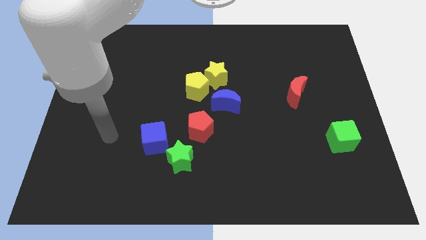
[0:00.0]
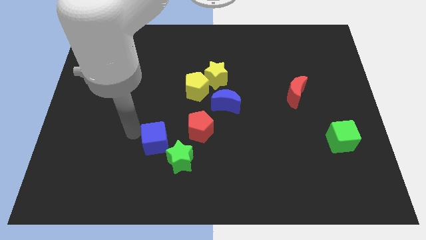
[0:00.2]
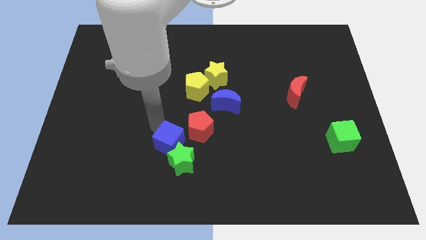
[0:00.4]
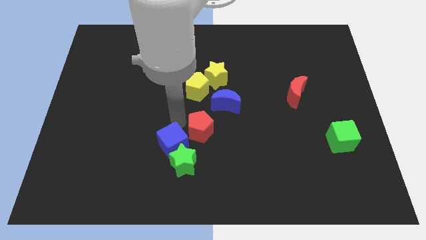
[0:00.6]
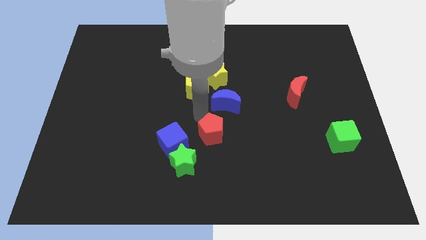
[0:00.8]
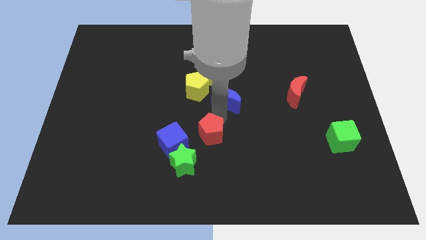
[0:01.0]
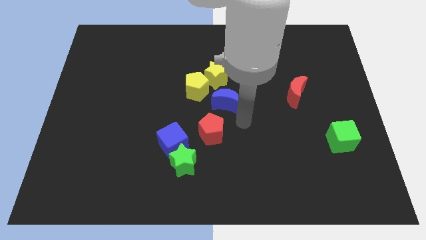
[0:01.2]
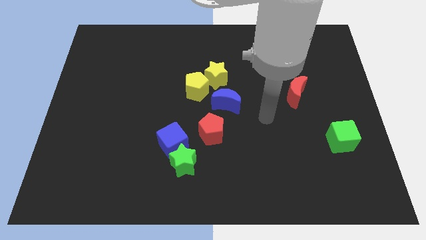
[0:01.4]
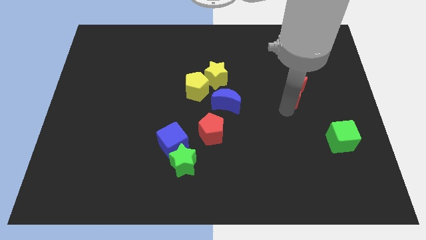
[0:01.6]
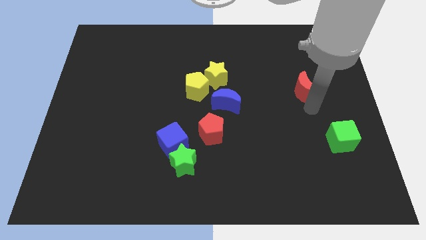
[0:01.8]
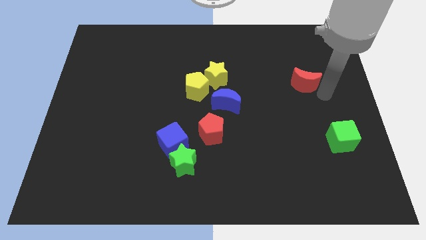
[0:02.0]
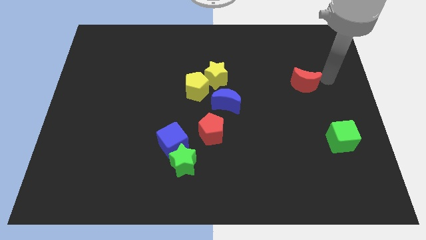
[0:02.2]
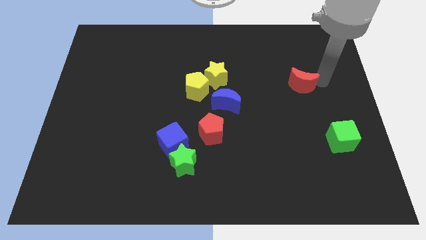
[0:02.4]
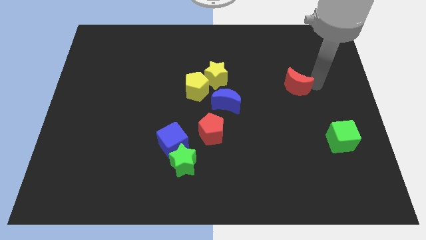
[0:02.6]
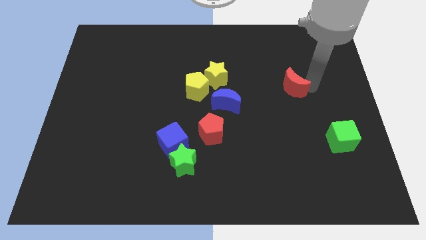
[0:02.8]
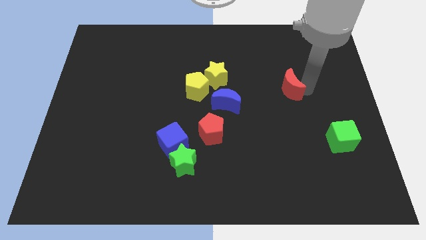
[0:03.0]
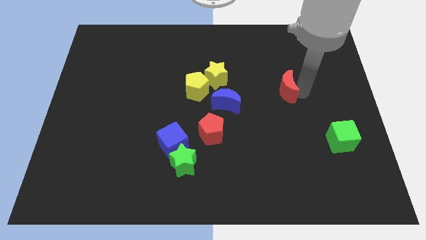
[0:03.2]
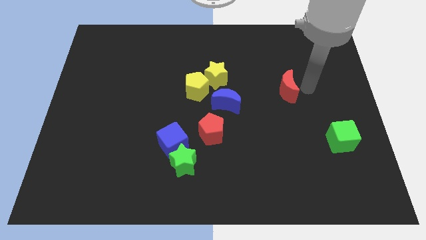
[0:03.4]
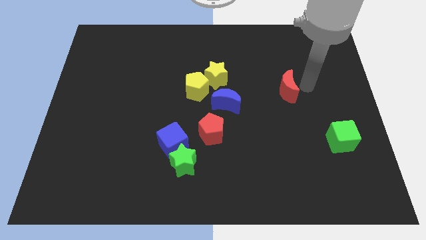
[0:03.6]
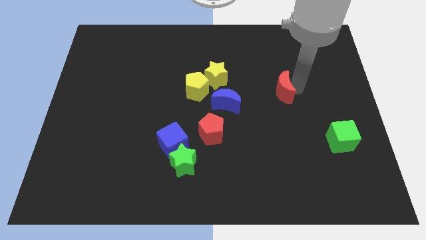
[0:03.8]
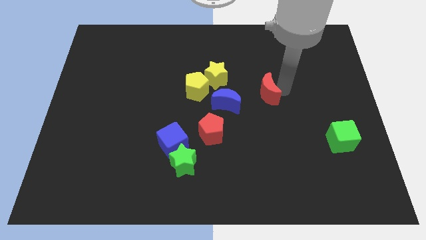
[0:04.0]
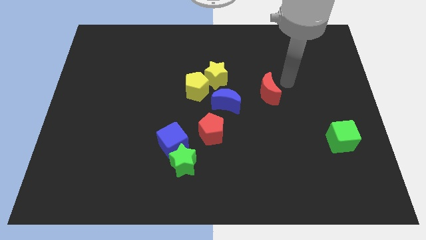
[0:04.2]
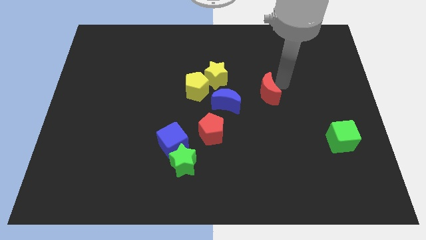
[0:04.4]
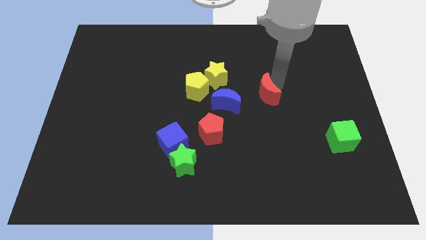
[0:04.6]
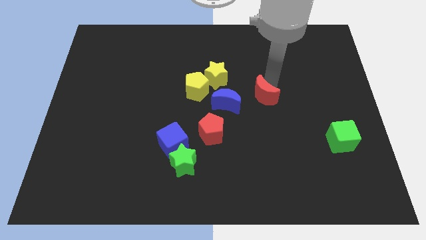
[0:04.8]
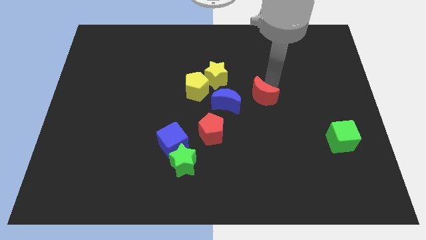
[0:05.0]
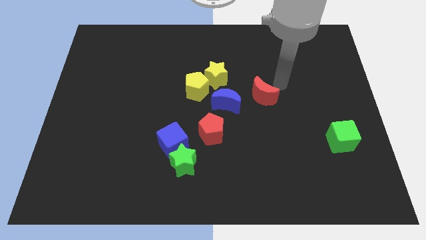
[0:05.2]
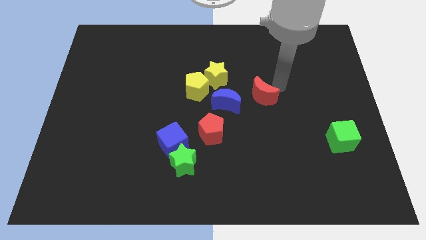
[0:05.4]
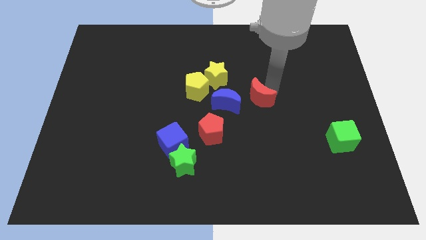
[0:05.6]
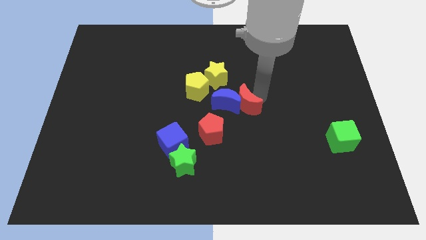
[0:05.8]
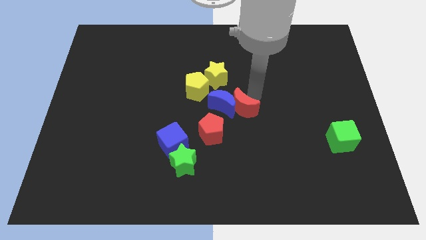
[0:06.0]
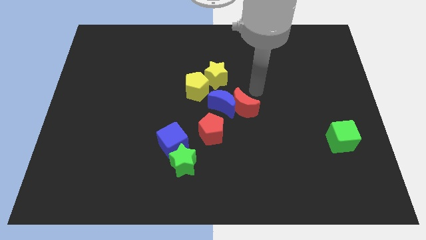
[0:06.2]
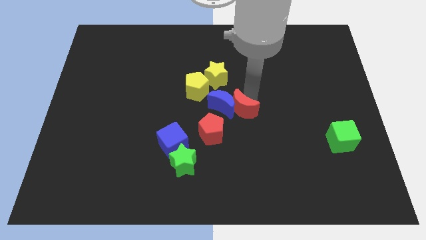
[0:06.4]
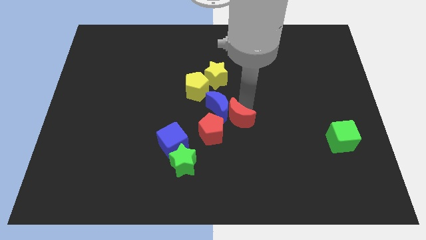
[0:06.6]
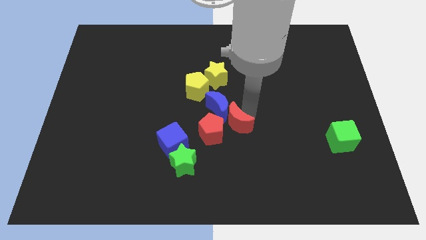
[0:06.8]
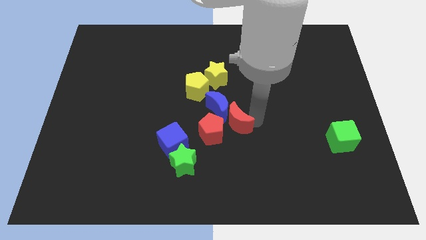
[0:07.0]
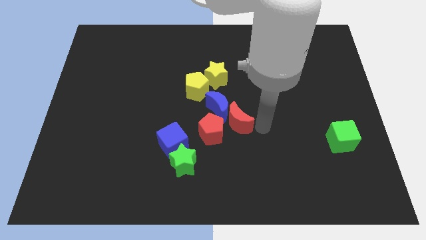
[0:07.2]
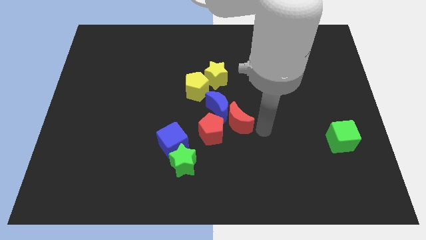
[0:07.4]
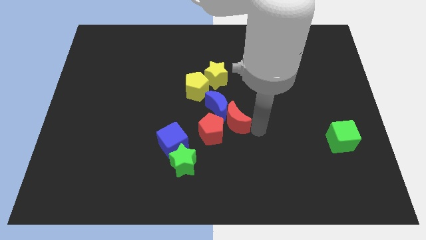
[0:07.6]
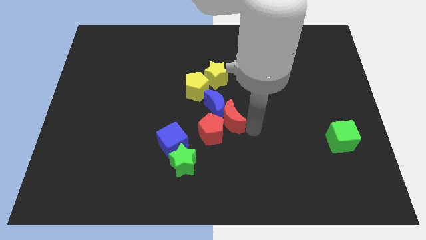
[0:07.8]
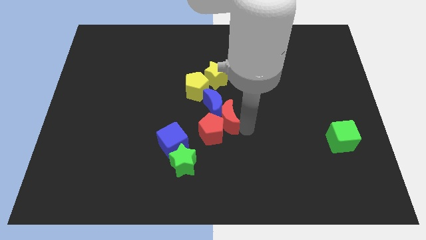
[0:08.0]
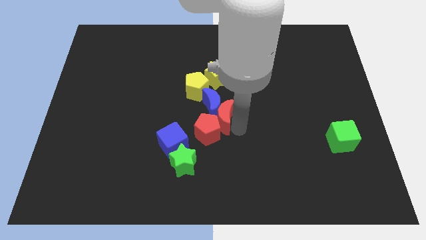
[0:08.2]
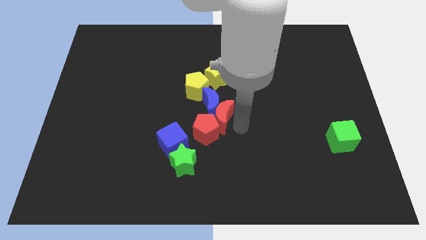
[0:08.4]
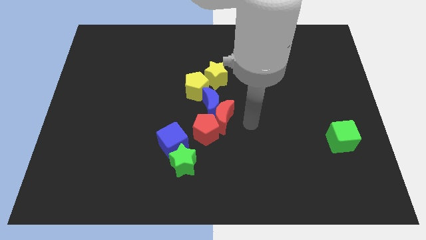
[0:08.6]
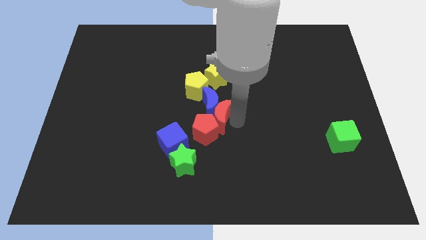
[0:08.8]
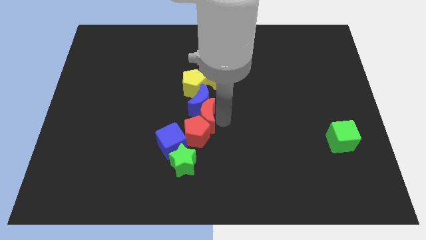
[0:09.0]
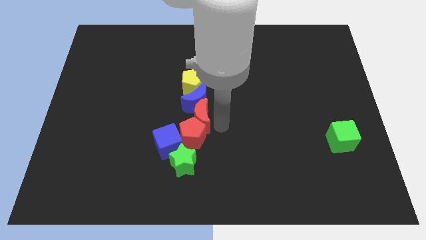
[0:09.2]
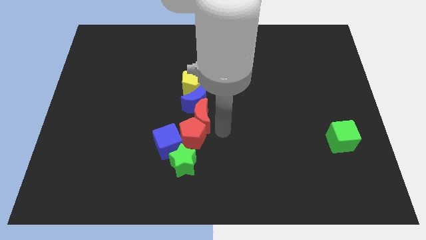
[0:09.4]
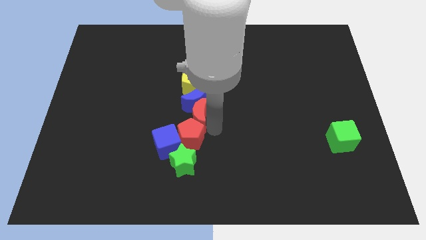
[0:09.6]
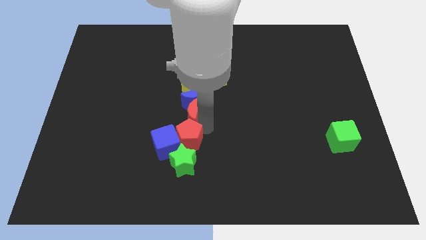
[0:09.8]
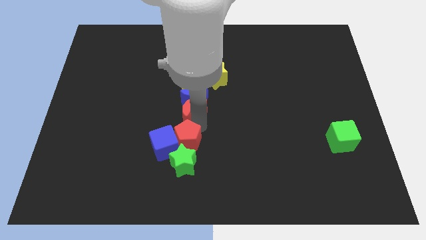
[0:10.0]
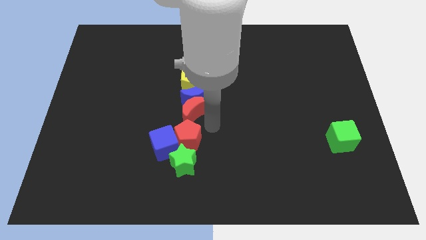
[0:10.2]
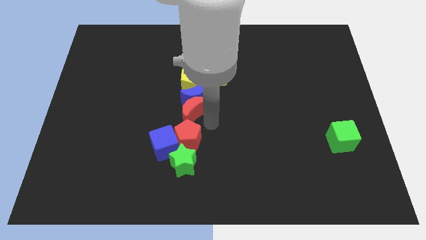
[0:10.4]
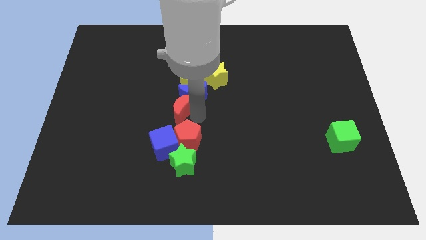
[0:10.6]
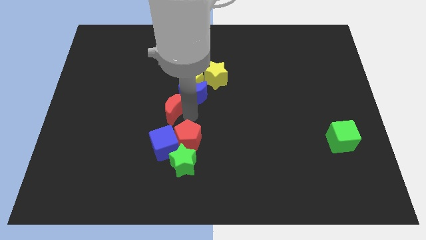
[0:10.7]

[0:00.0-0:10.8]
slide the red moon to the bottom left side of the yellow pentagon

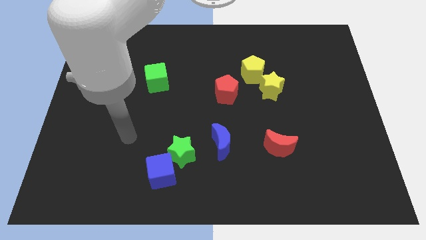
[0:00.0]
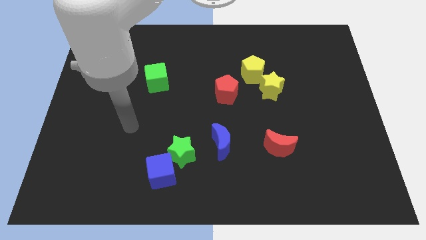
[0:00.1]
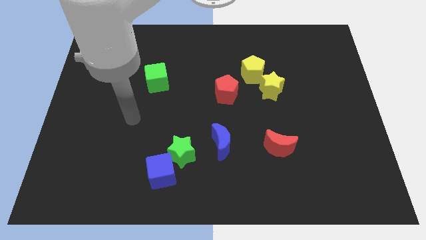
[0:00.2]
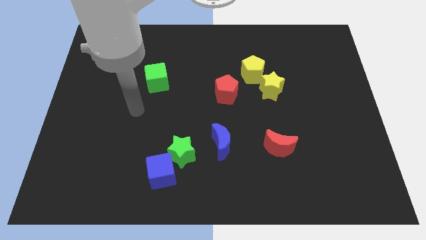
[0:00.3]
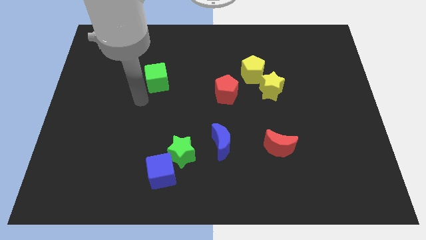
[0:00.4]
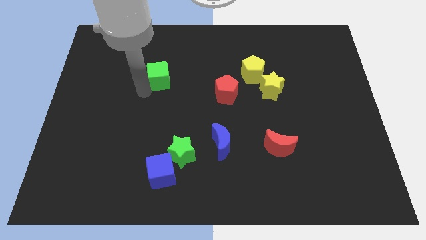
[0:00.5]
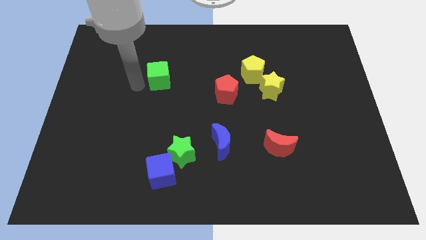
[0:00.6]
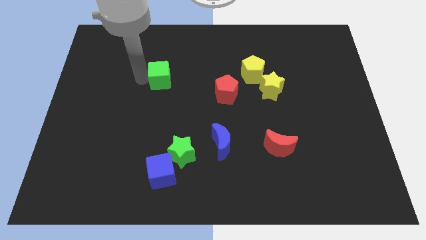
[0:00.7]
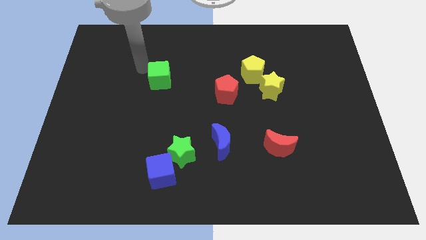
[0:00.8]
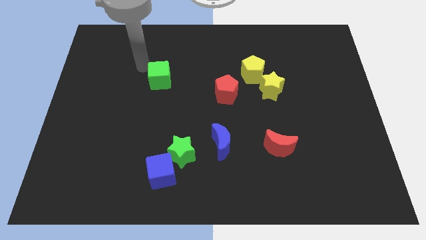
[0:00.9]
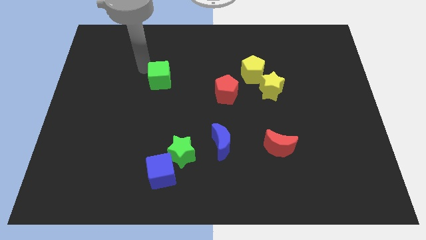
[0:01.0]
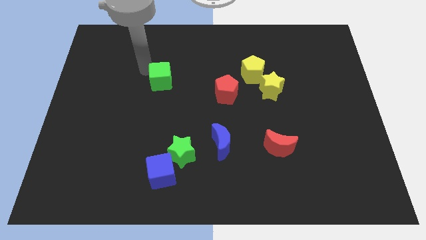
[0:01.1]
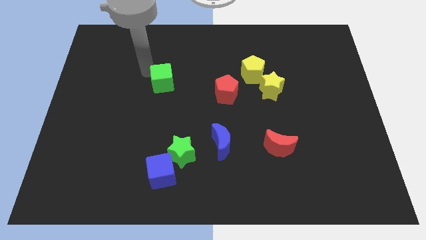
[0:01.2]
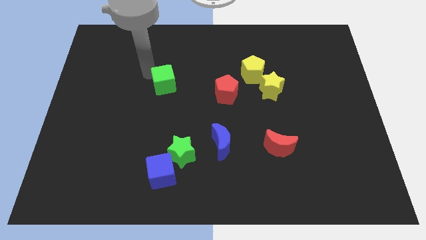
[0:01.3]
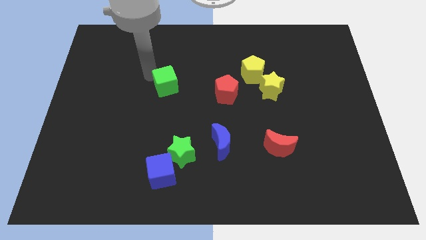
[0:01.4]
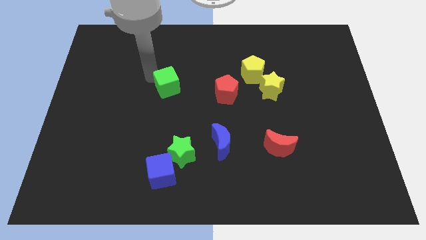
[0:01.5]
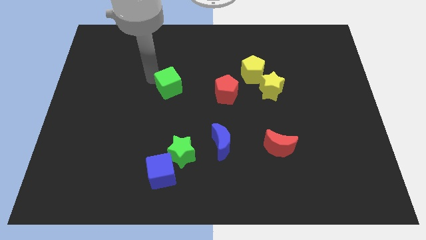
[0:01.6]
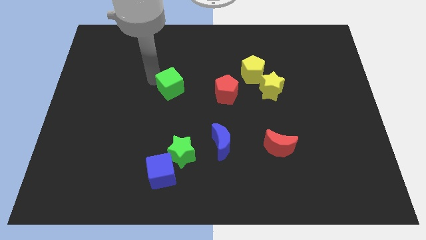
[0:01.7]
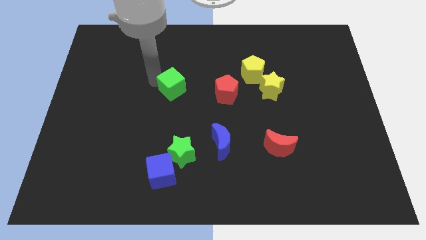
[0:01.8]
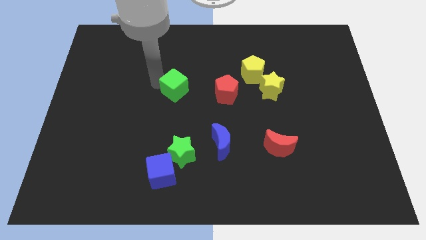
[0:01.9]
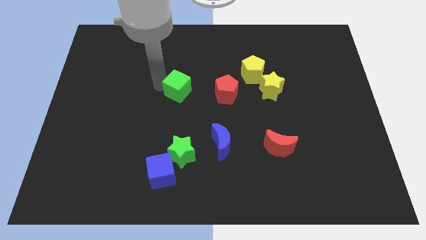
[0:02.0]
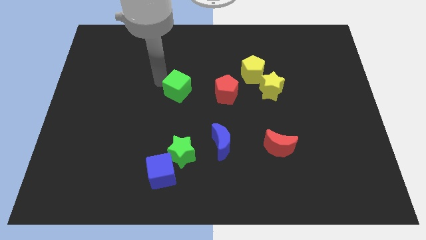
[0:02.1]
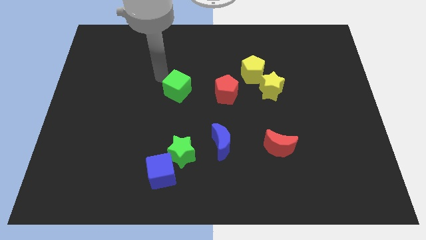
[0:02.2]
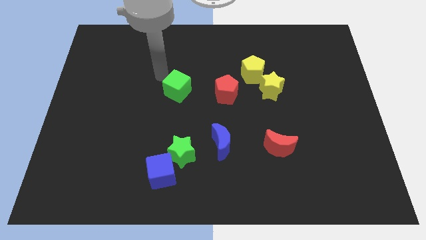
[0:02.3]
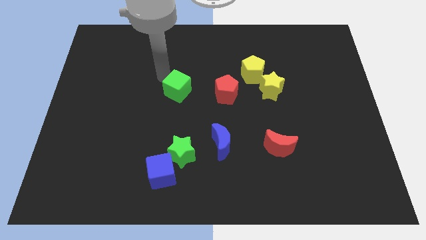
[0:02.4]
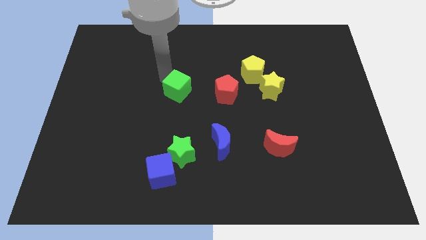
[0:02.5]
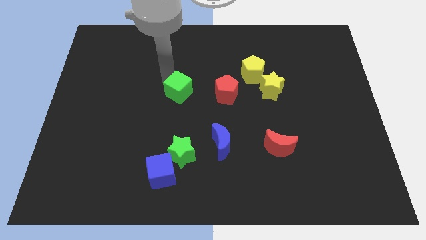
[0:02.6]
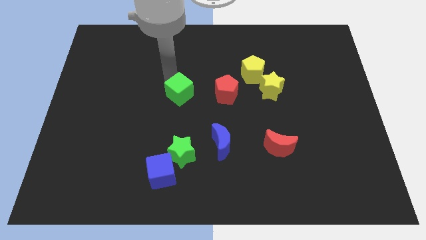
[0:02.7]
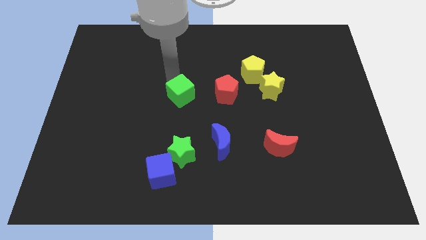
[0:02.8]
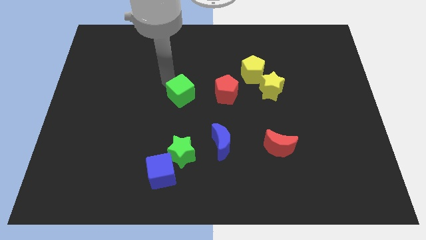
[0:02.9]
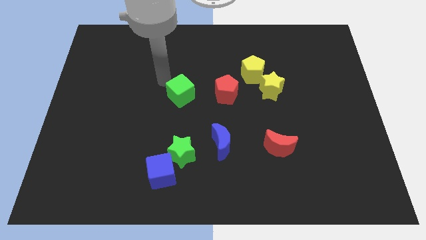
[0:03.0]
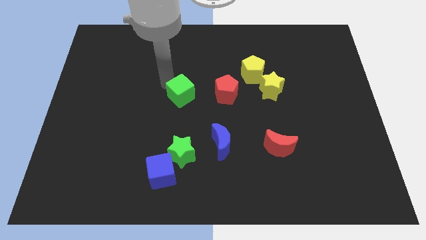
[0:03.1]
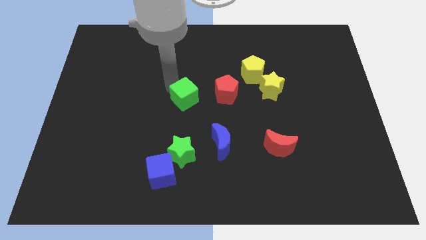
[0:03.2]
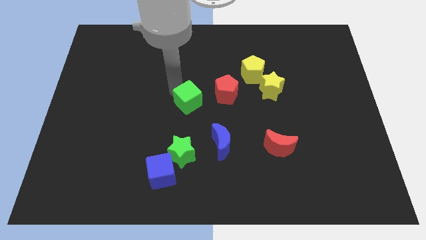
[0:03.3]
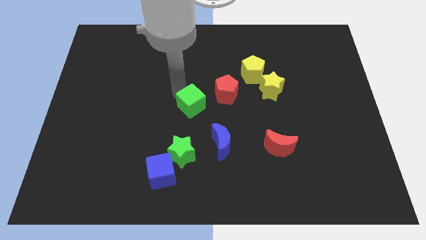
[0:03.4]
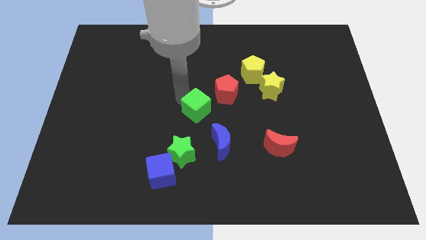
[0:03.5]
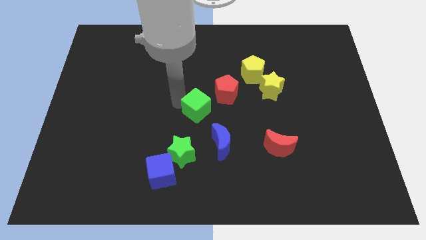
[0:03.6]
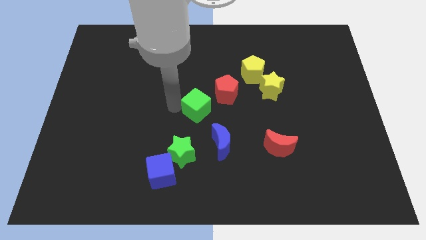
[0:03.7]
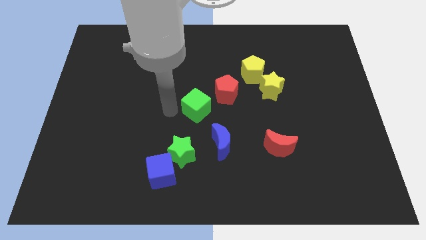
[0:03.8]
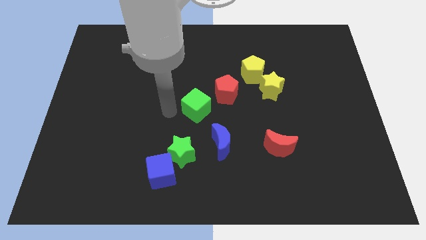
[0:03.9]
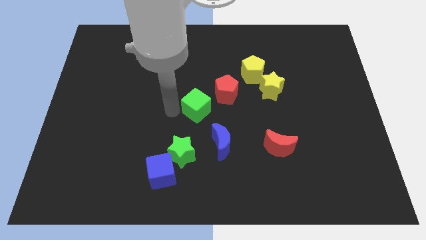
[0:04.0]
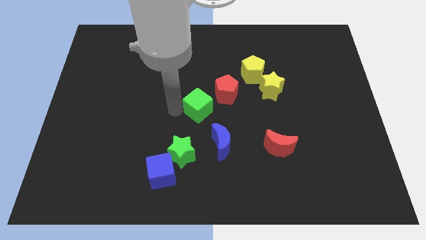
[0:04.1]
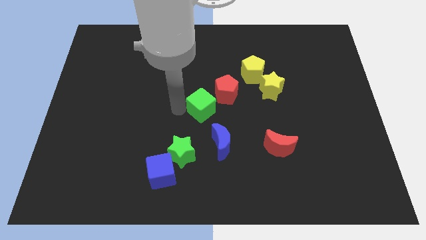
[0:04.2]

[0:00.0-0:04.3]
slide the green cube to the top side of the blue moon
